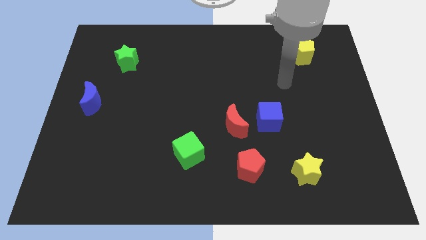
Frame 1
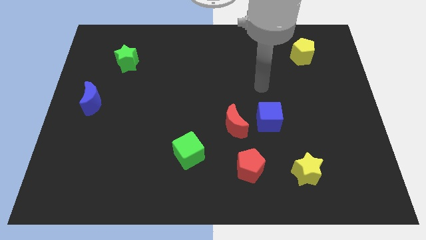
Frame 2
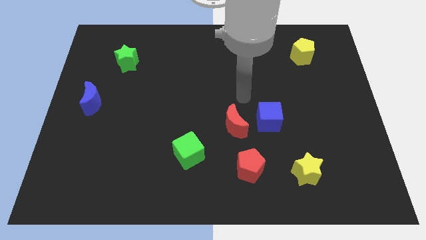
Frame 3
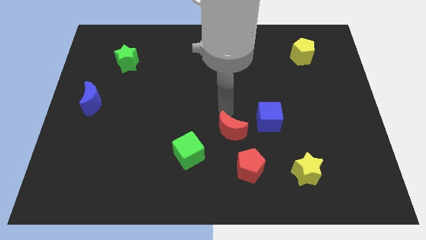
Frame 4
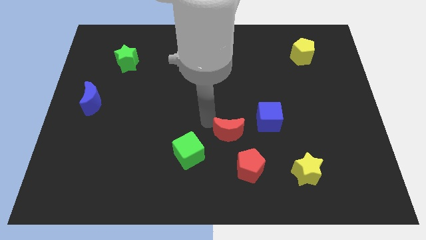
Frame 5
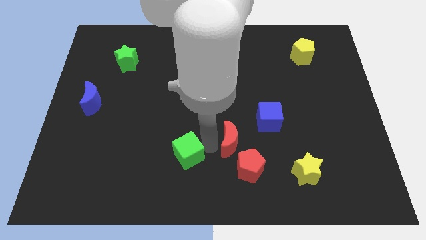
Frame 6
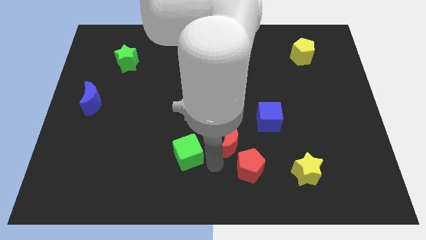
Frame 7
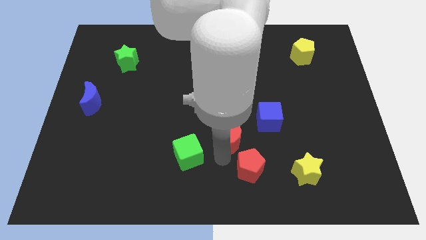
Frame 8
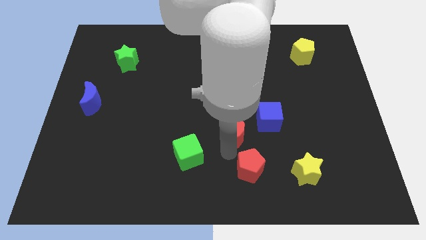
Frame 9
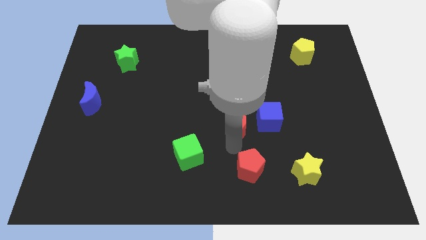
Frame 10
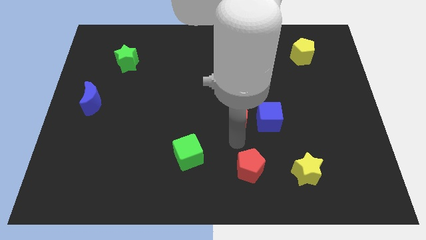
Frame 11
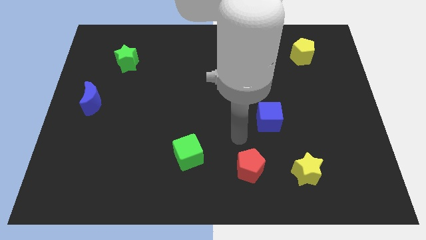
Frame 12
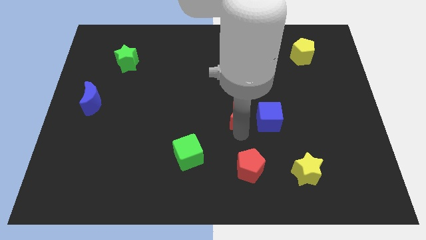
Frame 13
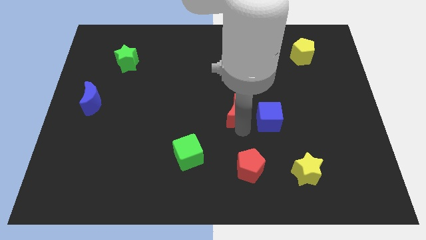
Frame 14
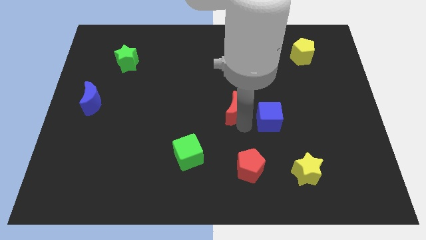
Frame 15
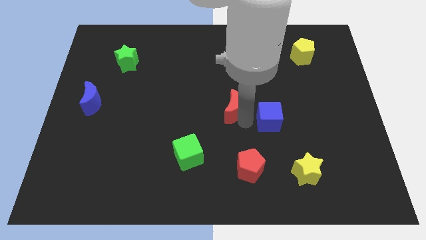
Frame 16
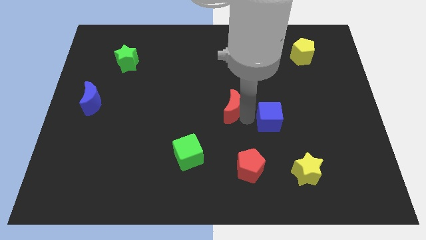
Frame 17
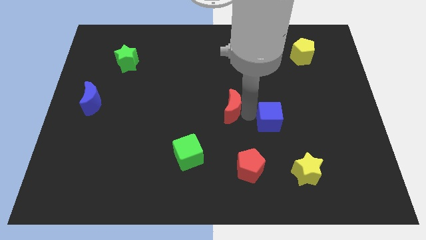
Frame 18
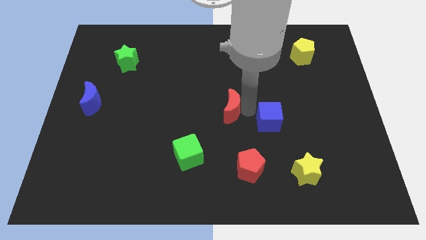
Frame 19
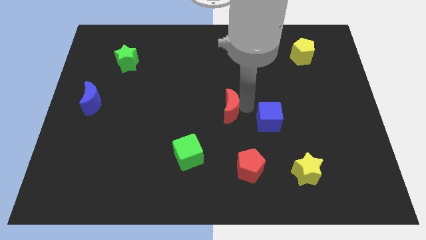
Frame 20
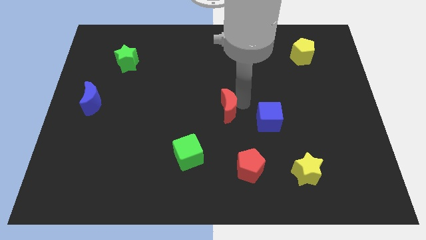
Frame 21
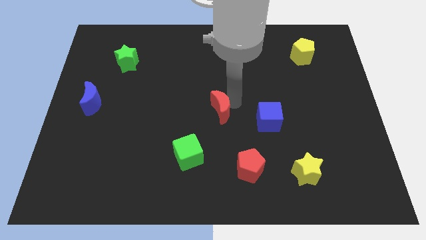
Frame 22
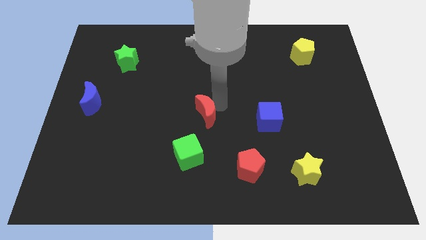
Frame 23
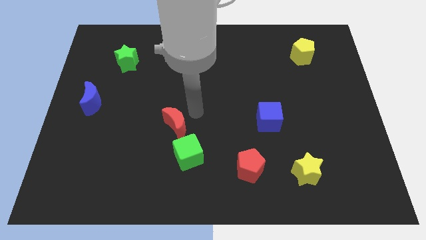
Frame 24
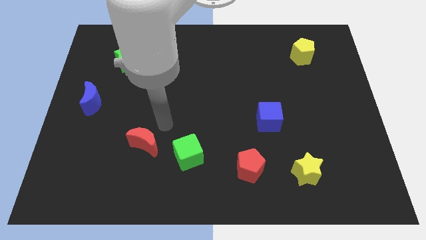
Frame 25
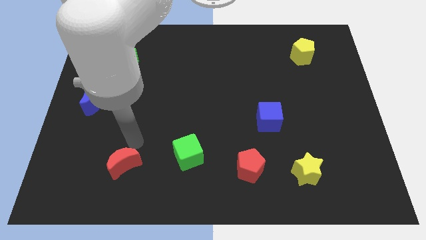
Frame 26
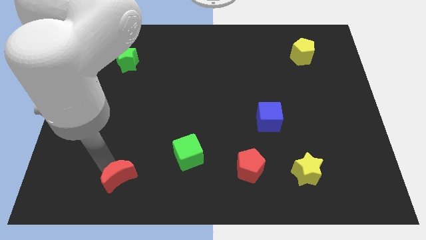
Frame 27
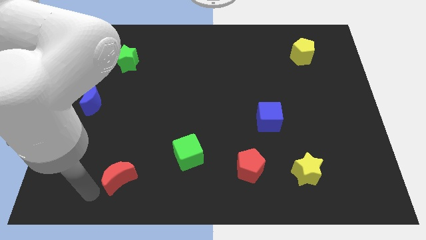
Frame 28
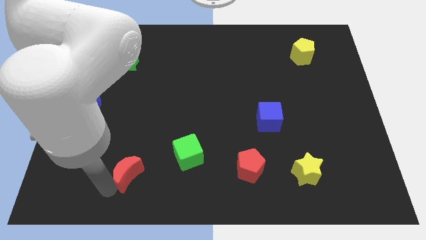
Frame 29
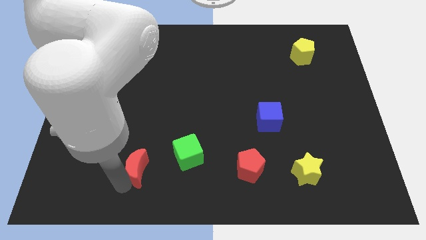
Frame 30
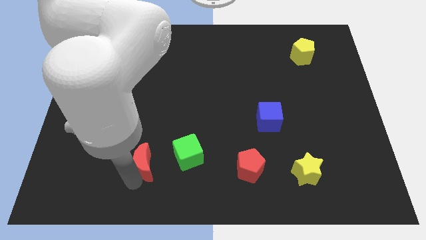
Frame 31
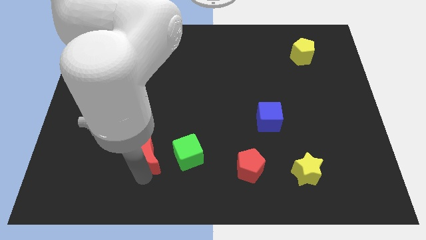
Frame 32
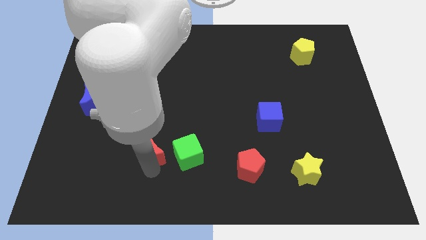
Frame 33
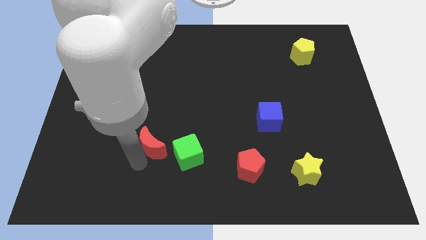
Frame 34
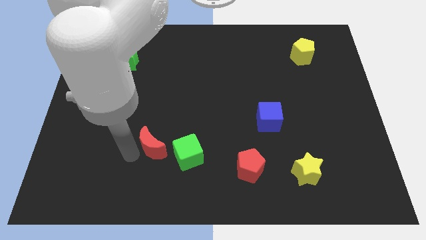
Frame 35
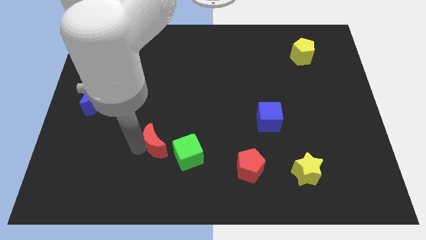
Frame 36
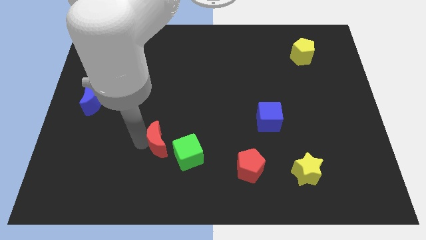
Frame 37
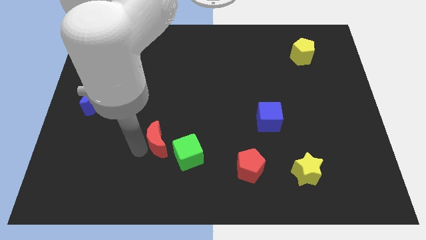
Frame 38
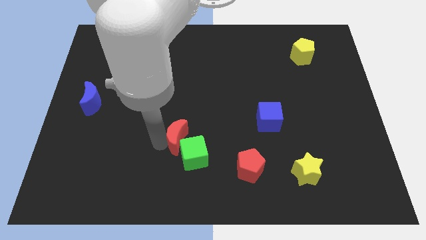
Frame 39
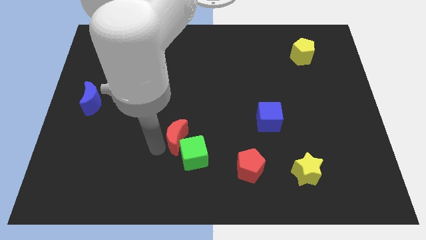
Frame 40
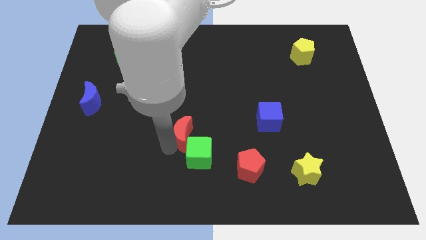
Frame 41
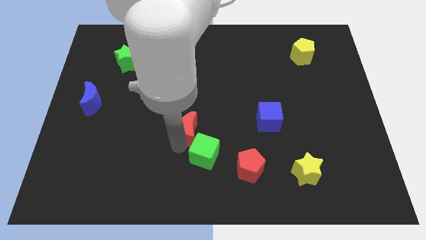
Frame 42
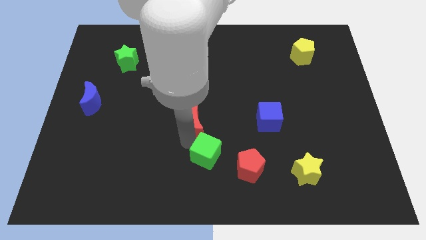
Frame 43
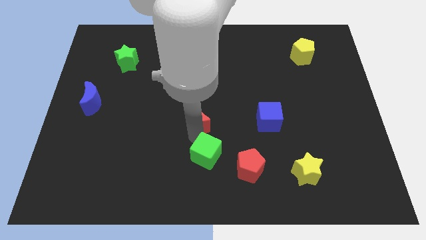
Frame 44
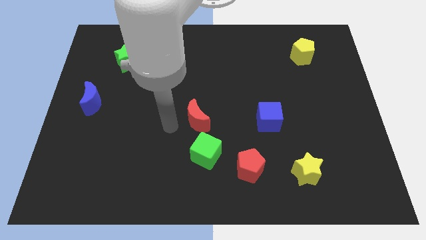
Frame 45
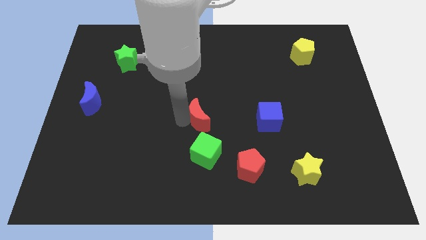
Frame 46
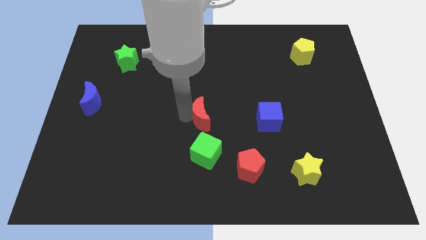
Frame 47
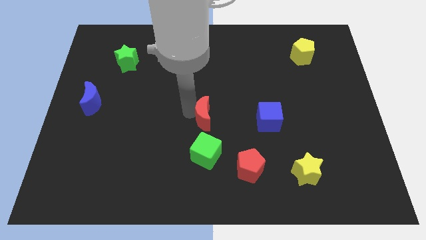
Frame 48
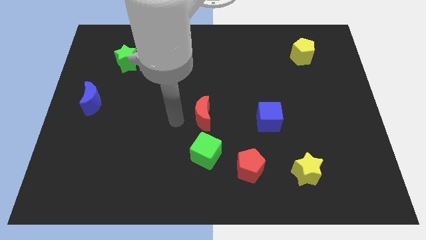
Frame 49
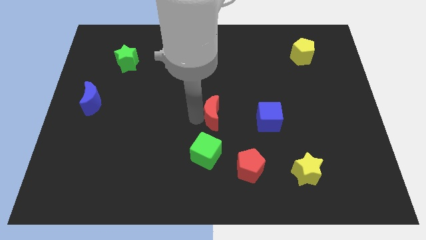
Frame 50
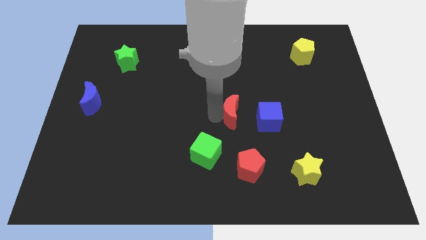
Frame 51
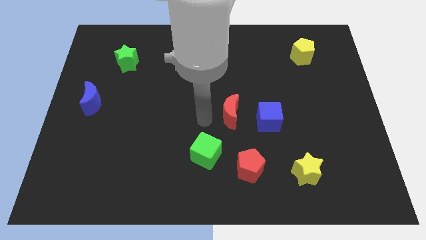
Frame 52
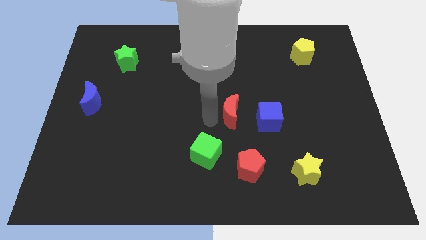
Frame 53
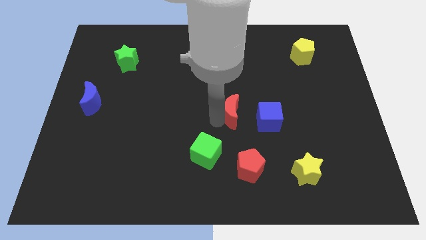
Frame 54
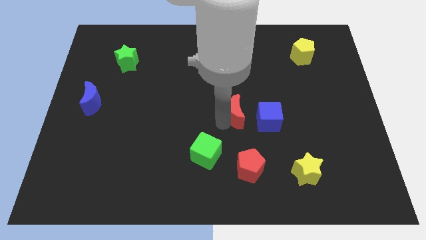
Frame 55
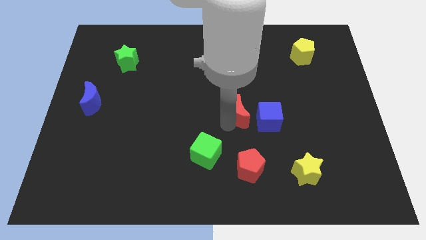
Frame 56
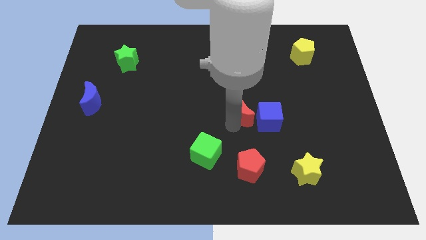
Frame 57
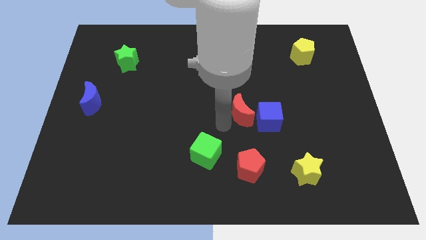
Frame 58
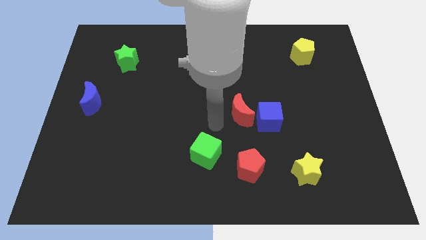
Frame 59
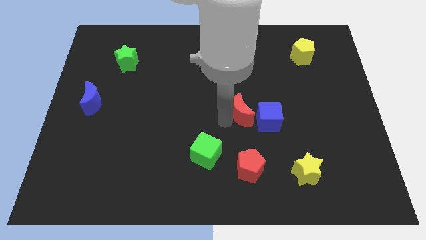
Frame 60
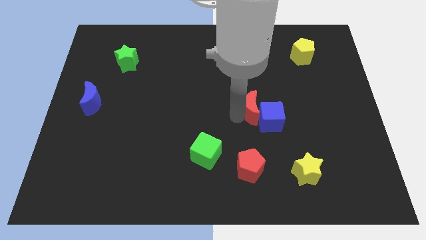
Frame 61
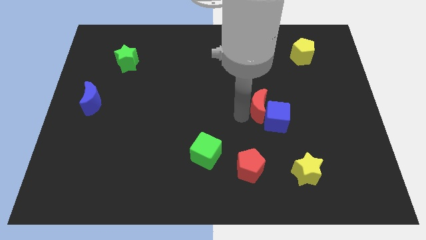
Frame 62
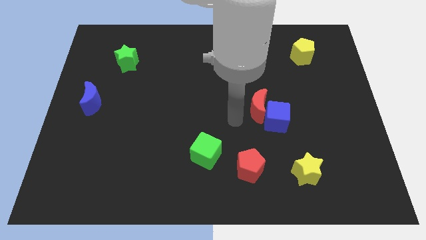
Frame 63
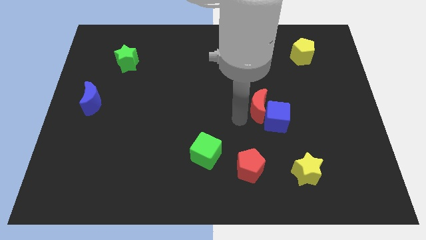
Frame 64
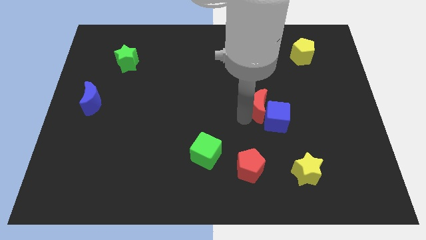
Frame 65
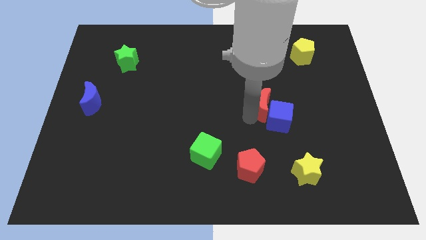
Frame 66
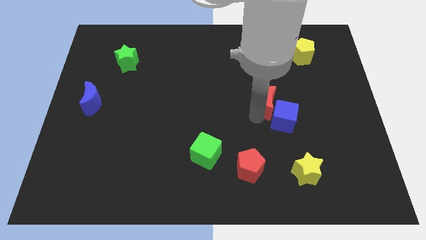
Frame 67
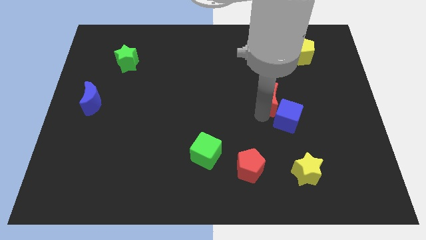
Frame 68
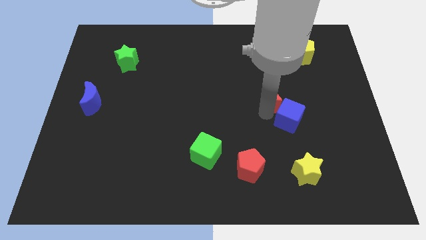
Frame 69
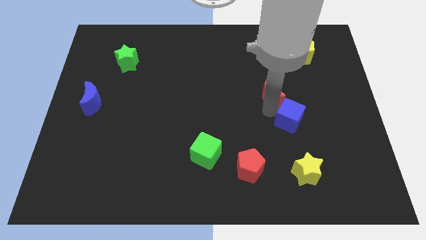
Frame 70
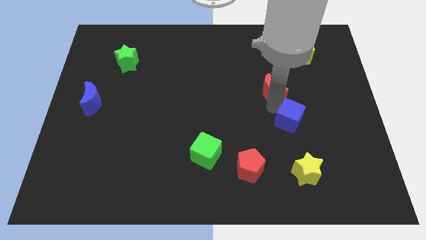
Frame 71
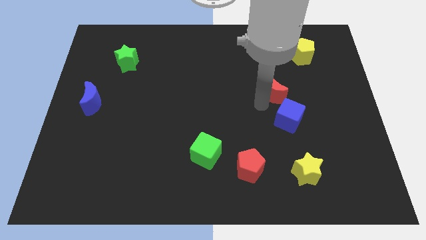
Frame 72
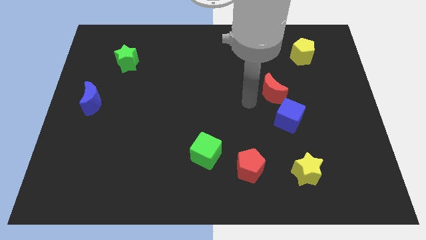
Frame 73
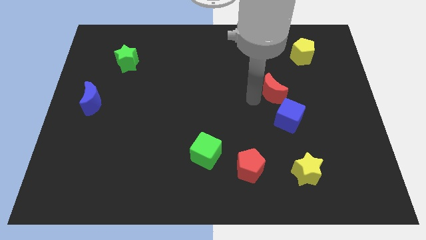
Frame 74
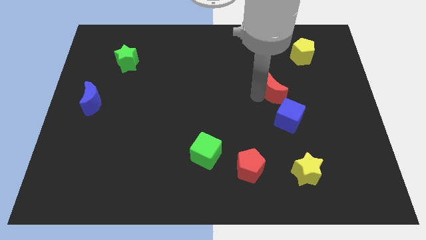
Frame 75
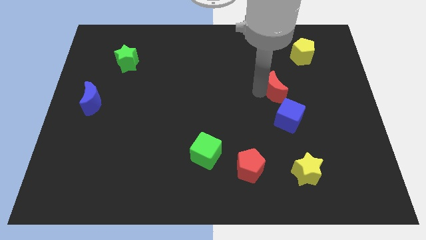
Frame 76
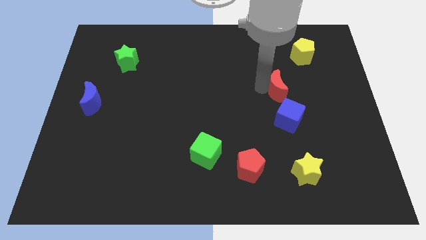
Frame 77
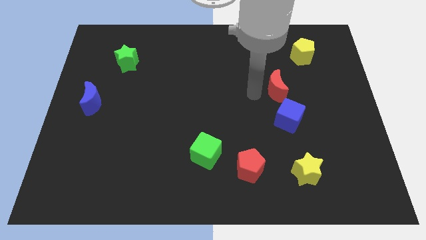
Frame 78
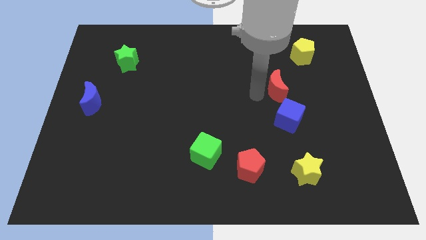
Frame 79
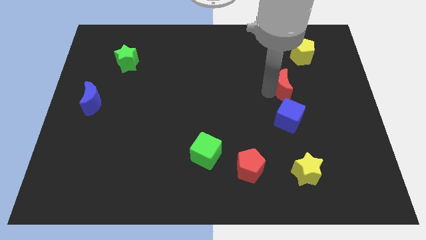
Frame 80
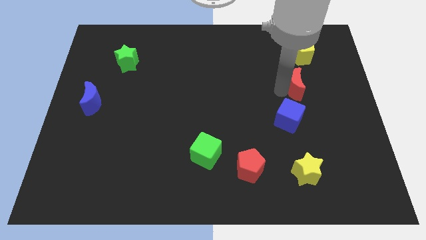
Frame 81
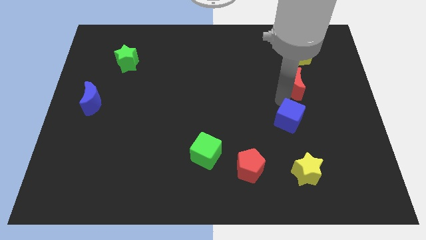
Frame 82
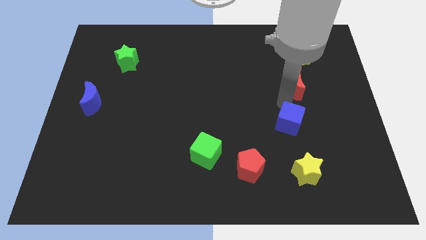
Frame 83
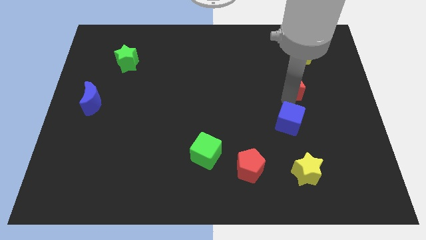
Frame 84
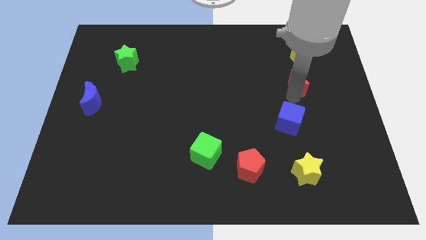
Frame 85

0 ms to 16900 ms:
move the red moon upwards and then right
